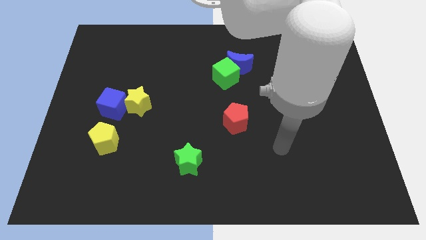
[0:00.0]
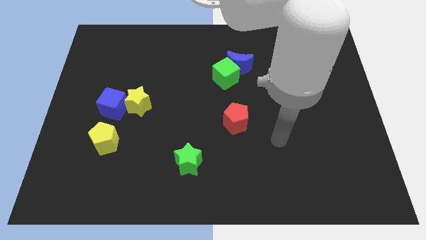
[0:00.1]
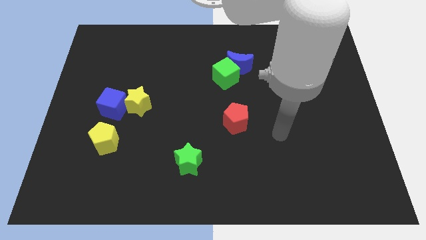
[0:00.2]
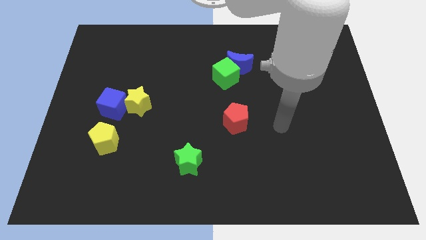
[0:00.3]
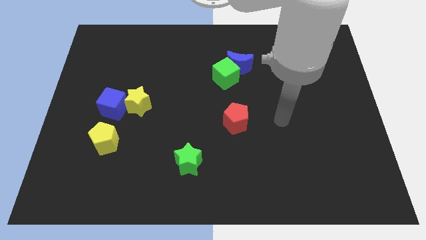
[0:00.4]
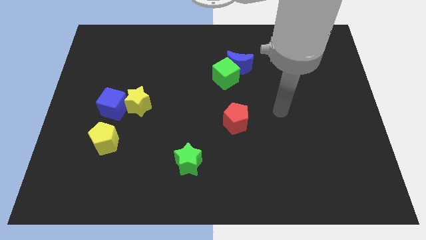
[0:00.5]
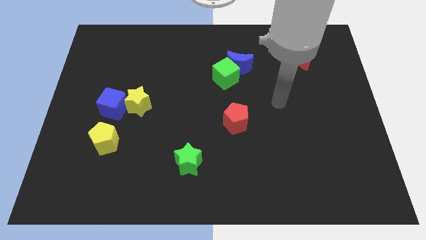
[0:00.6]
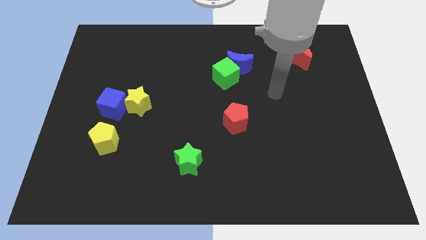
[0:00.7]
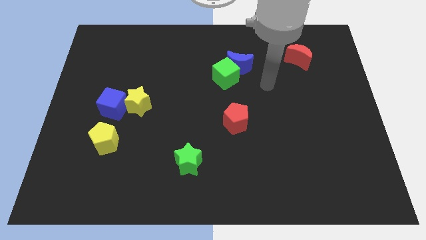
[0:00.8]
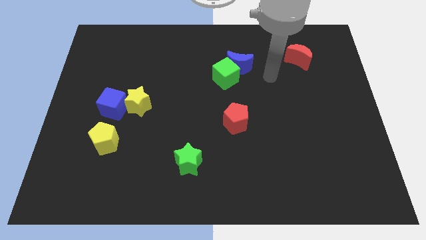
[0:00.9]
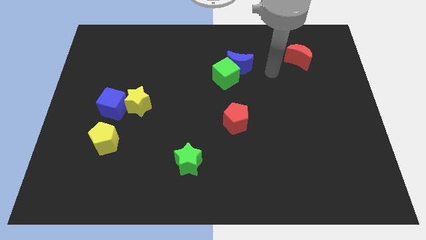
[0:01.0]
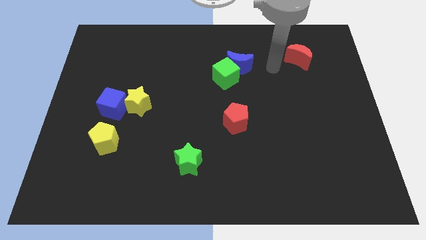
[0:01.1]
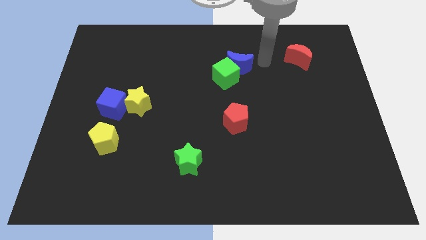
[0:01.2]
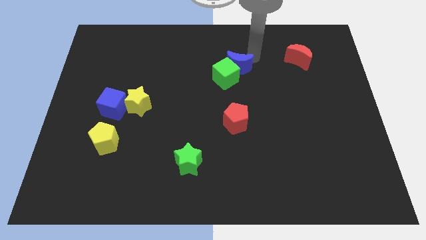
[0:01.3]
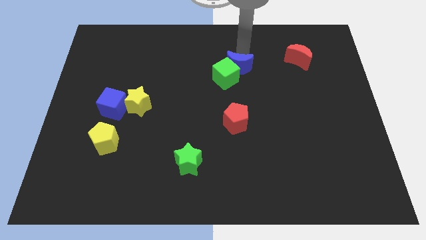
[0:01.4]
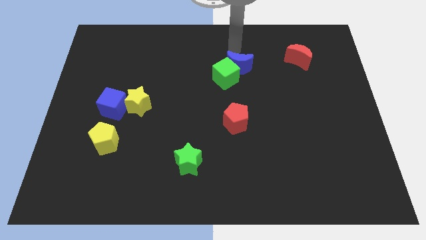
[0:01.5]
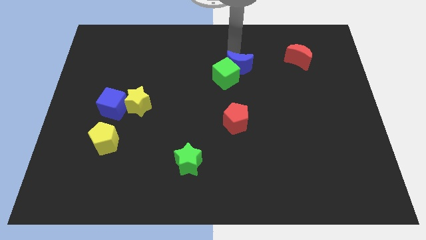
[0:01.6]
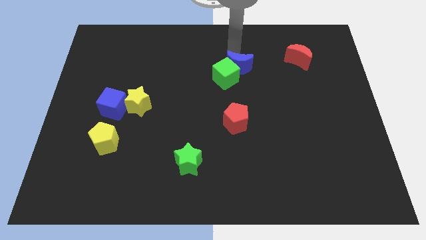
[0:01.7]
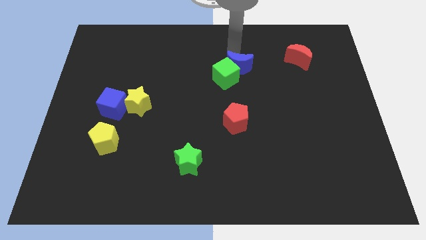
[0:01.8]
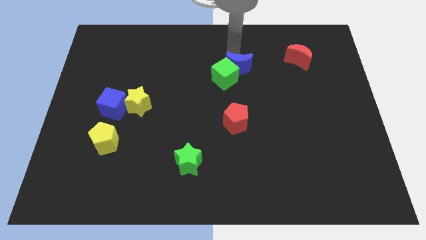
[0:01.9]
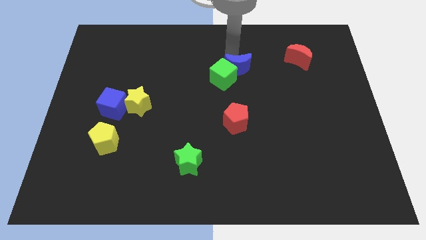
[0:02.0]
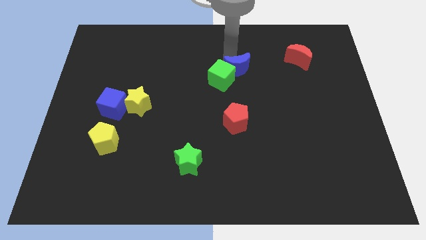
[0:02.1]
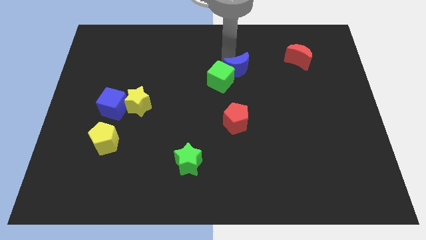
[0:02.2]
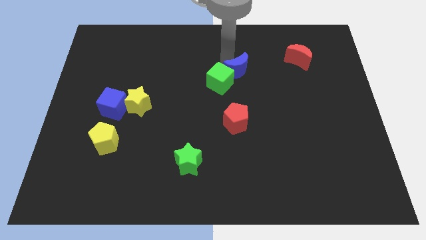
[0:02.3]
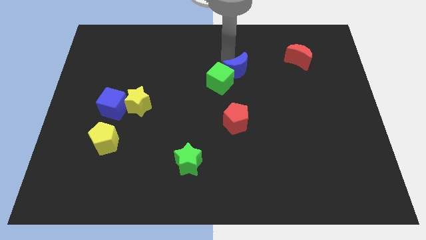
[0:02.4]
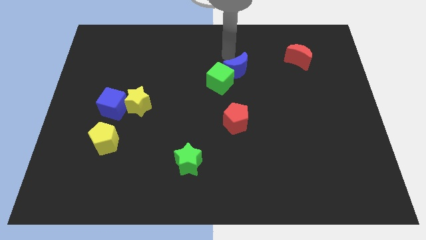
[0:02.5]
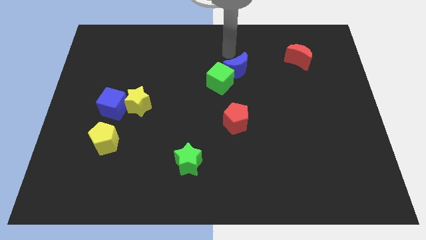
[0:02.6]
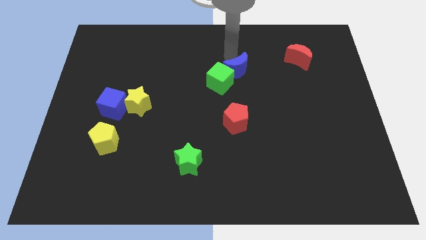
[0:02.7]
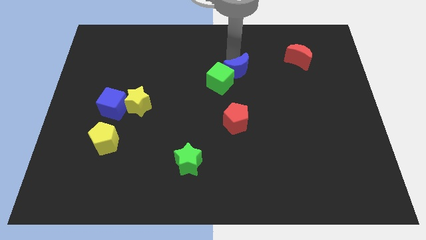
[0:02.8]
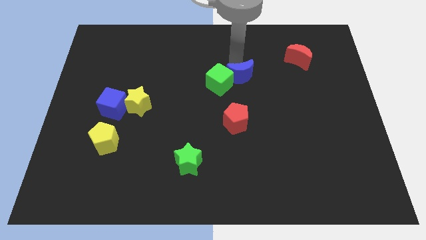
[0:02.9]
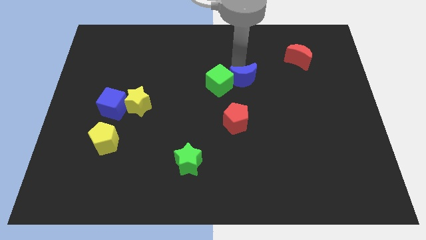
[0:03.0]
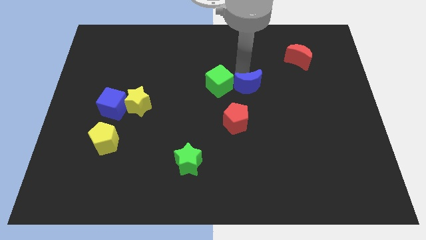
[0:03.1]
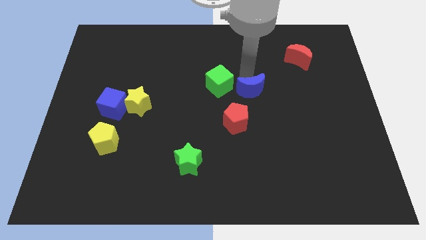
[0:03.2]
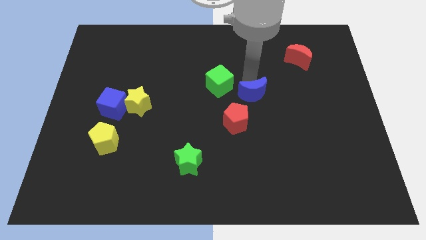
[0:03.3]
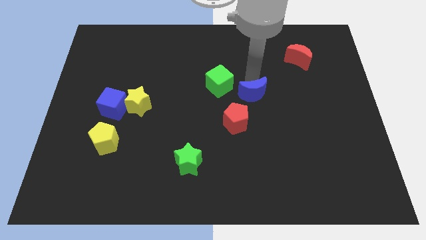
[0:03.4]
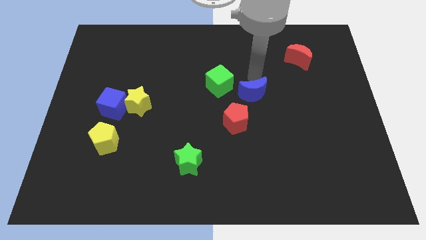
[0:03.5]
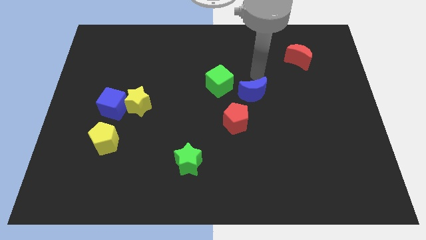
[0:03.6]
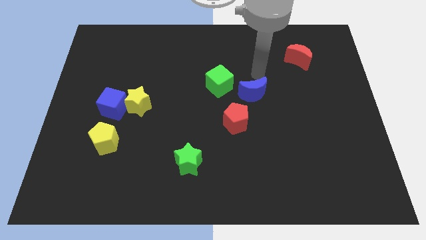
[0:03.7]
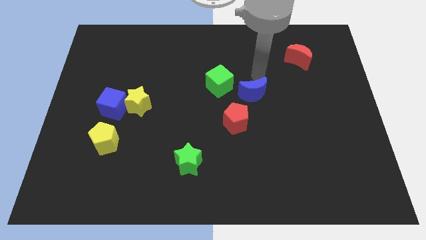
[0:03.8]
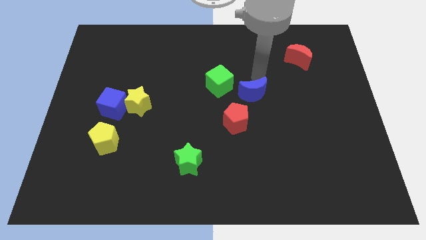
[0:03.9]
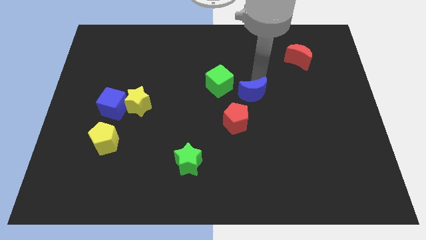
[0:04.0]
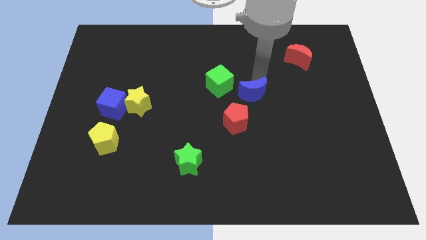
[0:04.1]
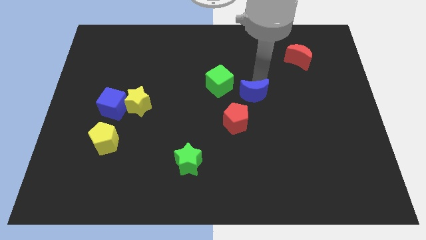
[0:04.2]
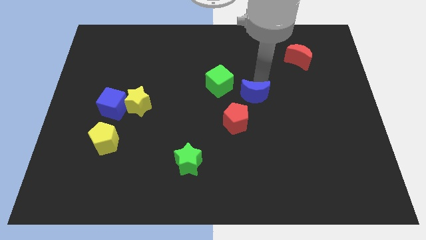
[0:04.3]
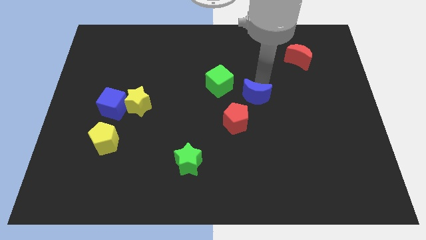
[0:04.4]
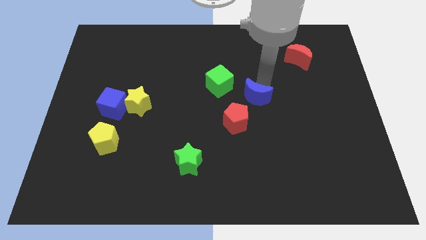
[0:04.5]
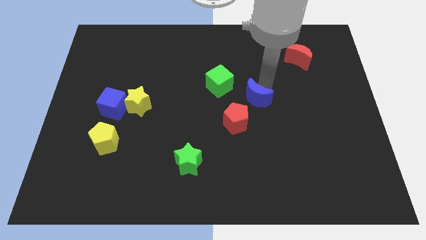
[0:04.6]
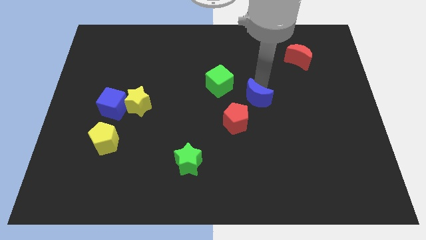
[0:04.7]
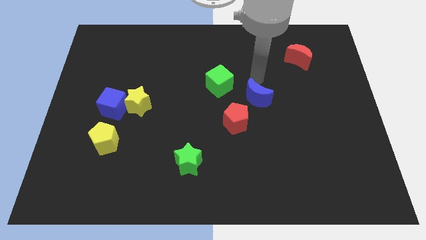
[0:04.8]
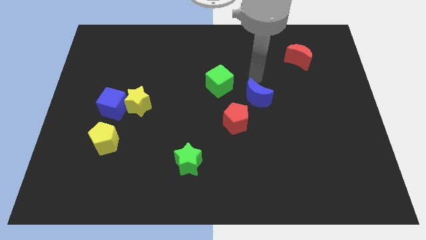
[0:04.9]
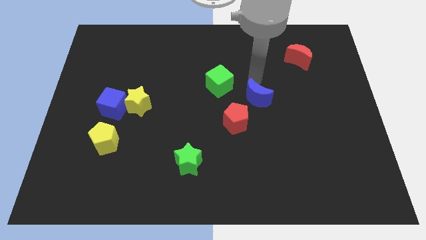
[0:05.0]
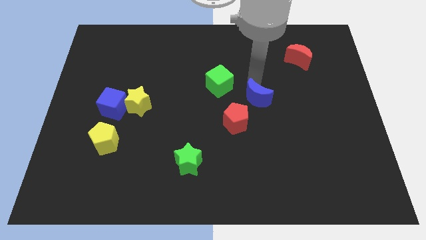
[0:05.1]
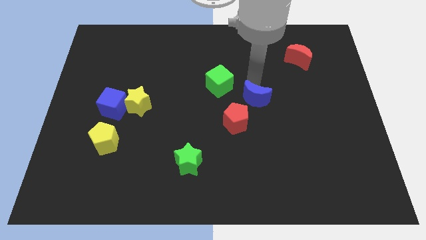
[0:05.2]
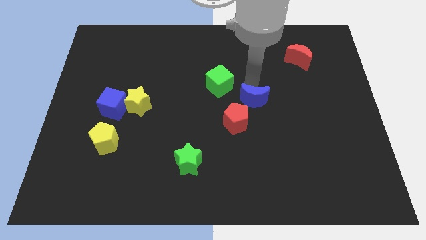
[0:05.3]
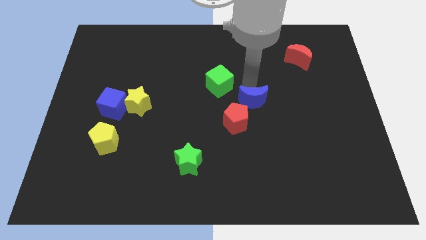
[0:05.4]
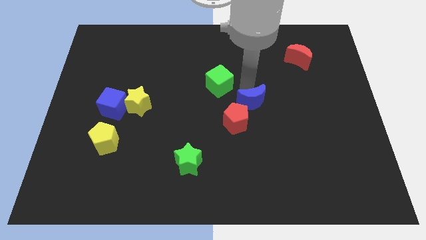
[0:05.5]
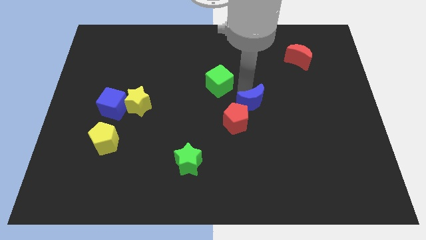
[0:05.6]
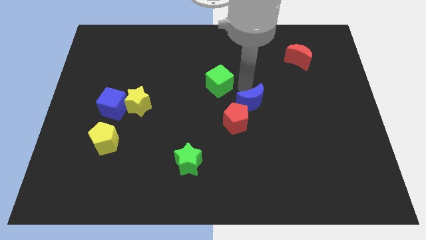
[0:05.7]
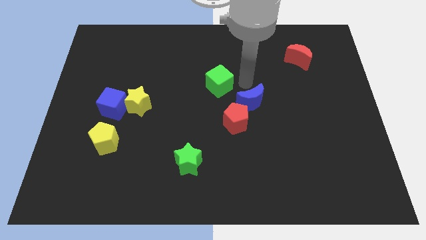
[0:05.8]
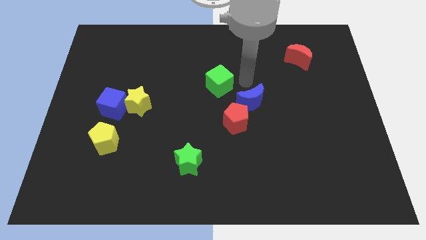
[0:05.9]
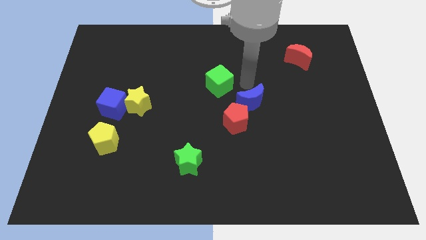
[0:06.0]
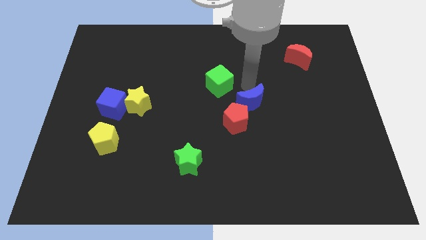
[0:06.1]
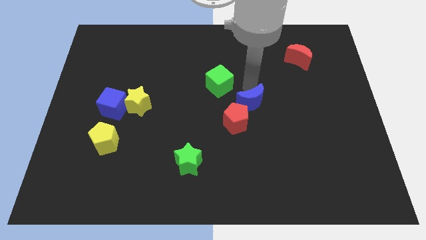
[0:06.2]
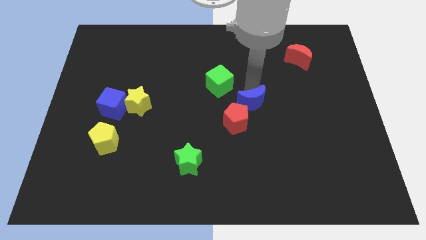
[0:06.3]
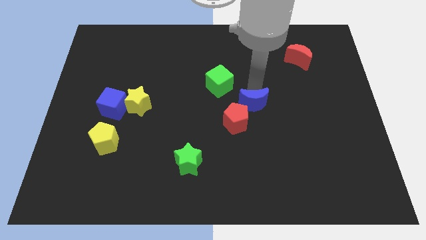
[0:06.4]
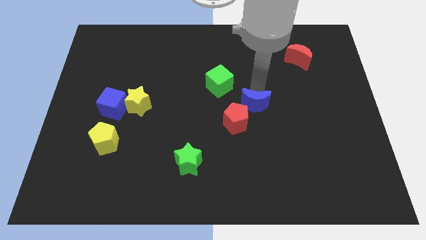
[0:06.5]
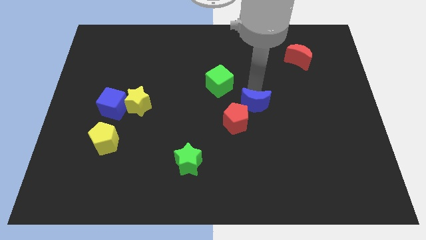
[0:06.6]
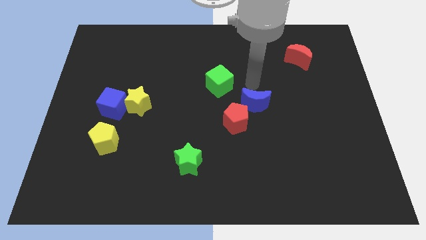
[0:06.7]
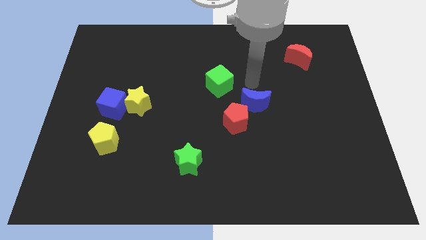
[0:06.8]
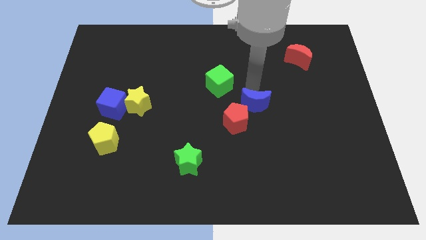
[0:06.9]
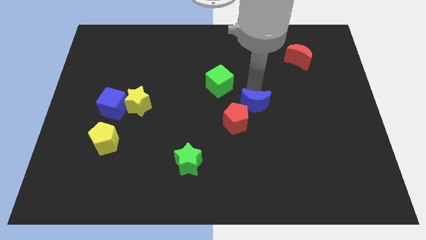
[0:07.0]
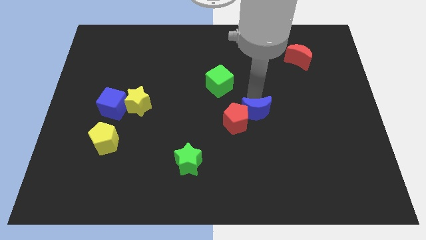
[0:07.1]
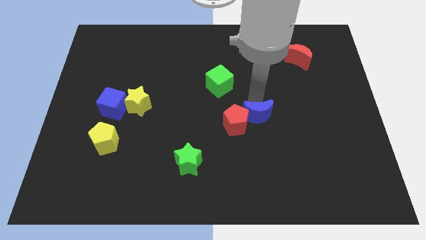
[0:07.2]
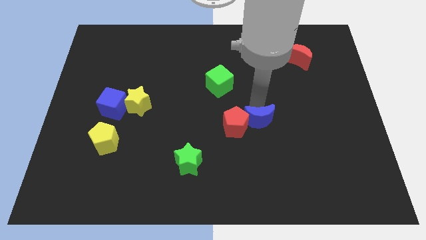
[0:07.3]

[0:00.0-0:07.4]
slide the blue moon to the bottom right of the red pentagon

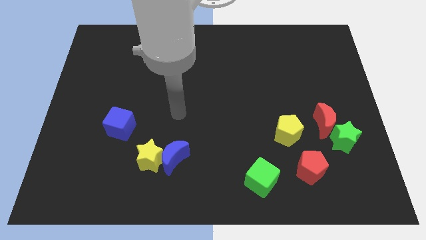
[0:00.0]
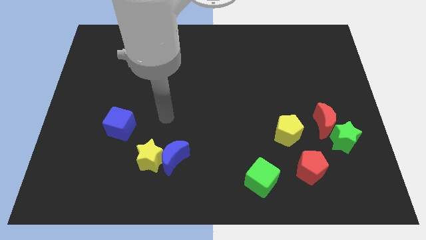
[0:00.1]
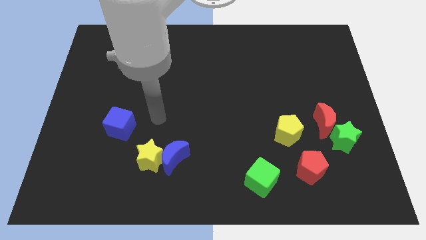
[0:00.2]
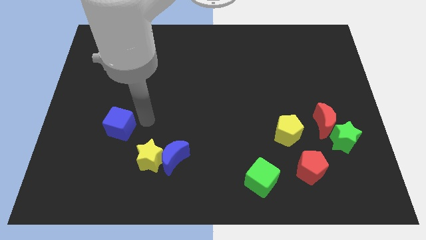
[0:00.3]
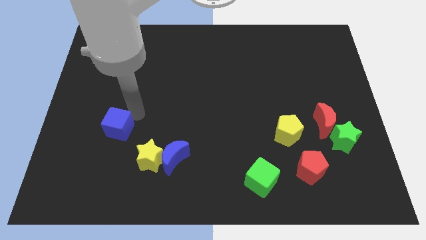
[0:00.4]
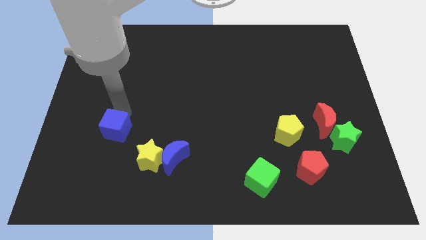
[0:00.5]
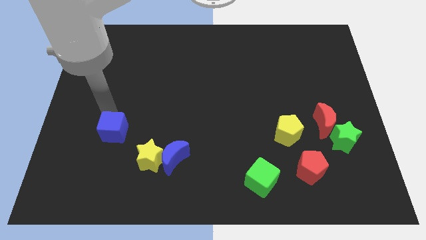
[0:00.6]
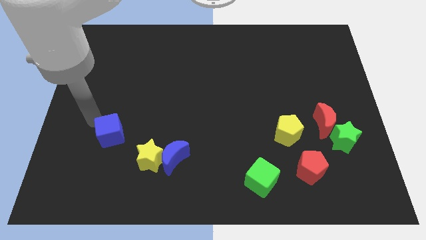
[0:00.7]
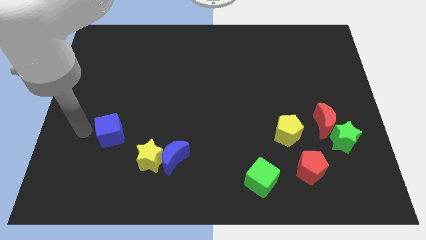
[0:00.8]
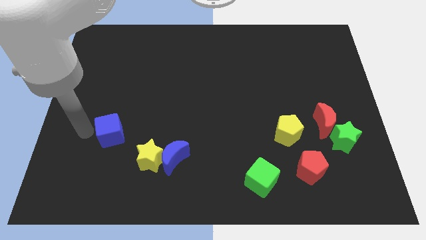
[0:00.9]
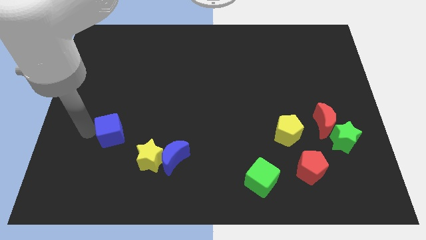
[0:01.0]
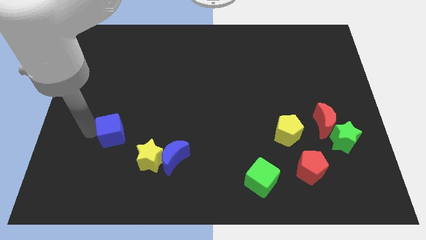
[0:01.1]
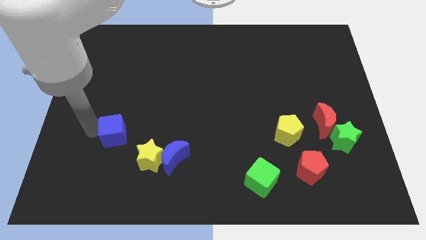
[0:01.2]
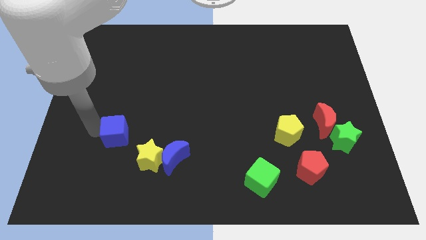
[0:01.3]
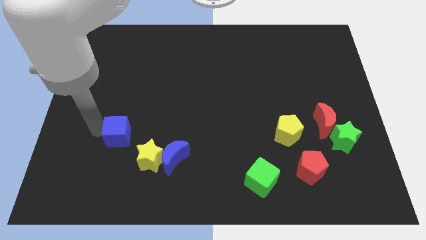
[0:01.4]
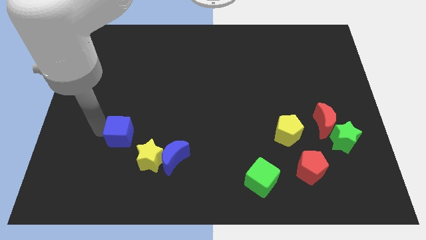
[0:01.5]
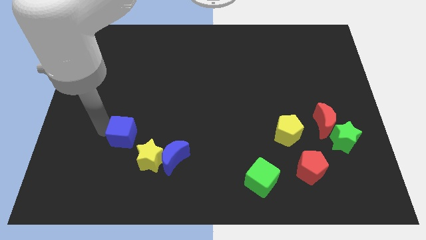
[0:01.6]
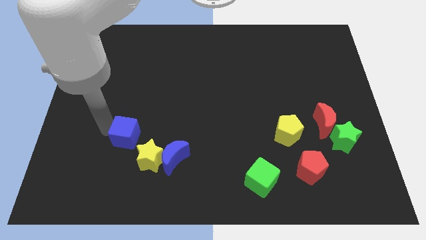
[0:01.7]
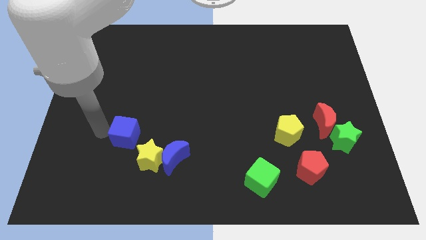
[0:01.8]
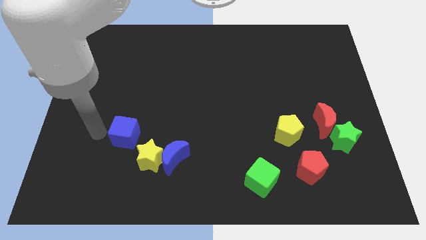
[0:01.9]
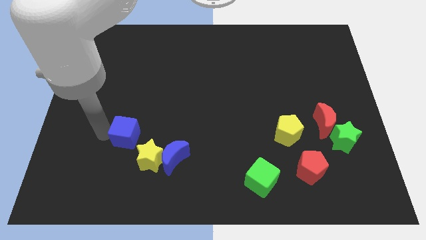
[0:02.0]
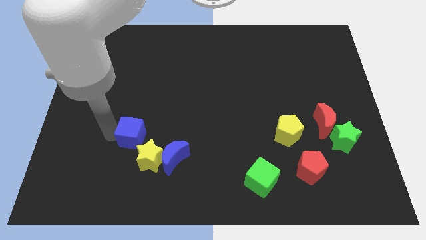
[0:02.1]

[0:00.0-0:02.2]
slide the blue cube to the top left of the blue moon
